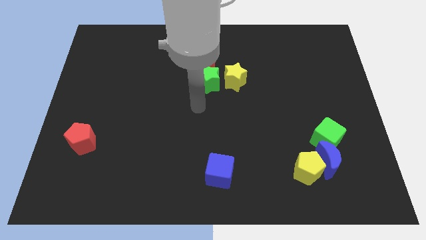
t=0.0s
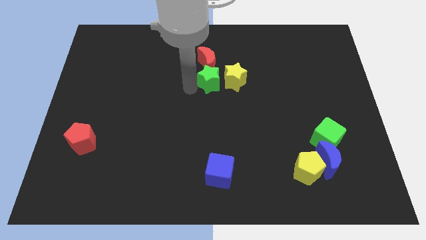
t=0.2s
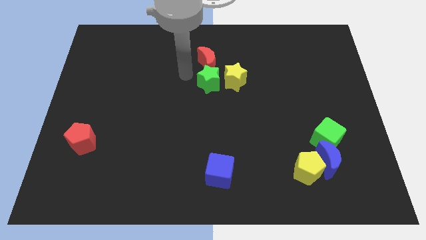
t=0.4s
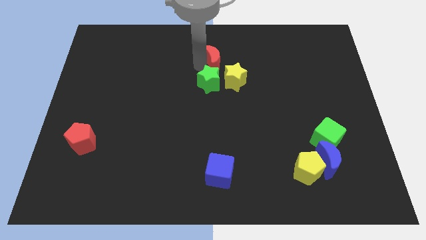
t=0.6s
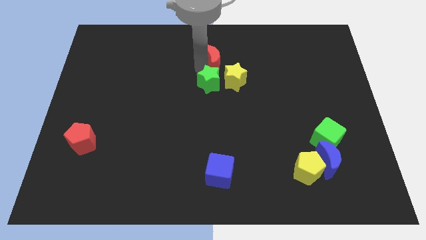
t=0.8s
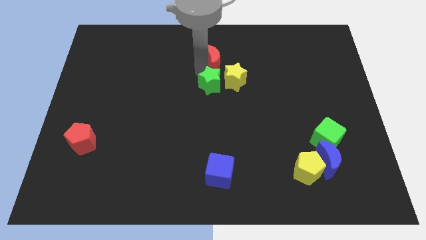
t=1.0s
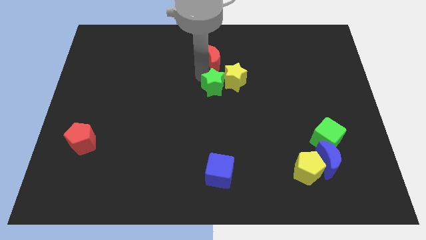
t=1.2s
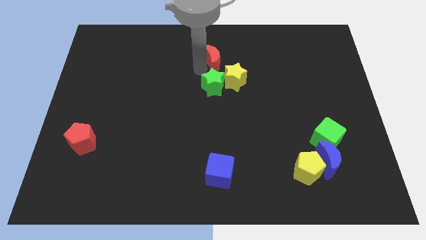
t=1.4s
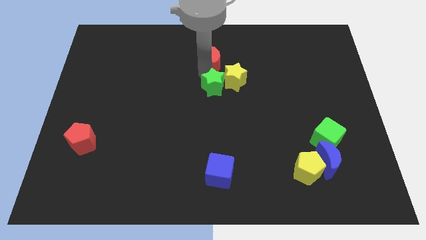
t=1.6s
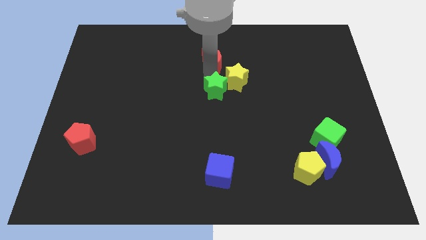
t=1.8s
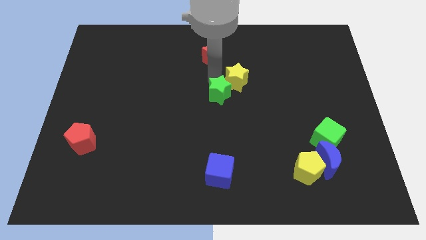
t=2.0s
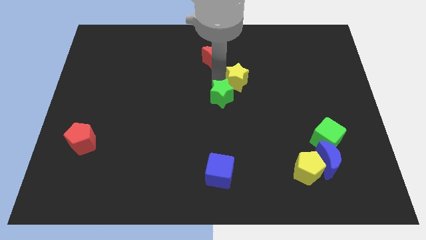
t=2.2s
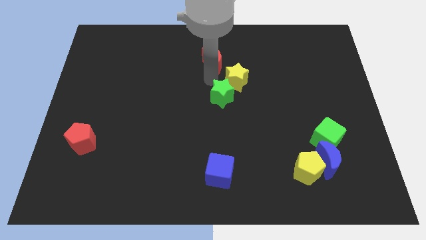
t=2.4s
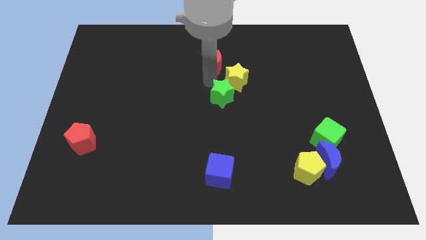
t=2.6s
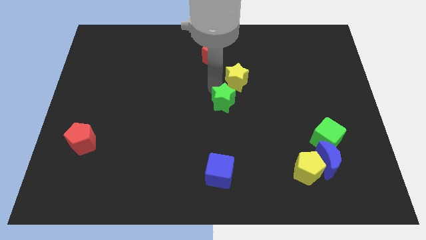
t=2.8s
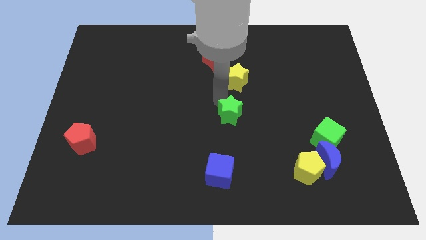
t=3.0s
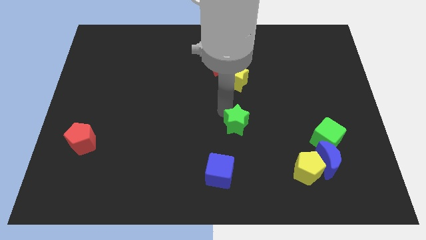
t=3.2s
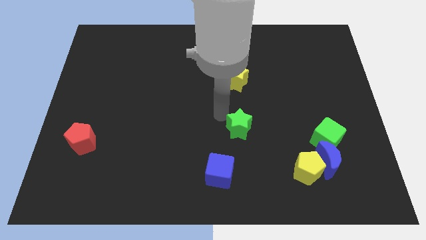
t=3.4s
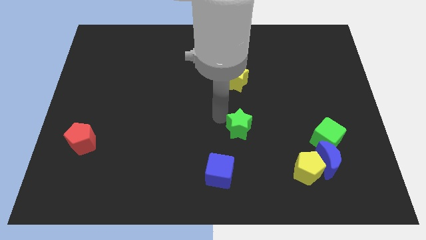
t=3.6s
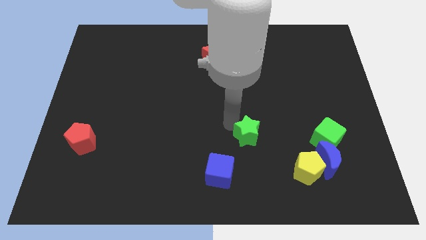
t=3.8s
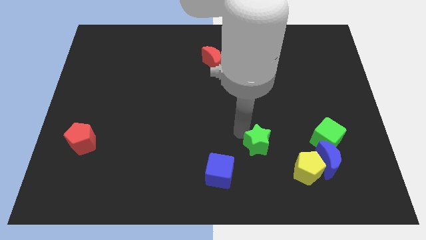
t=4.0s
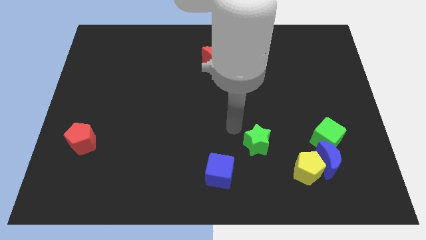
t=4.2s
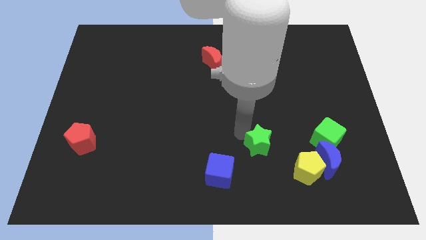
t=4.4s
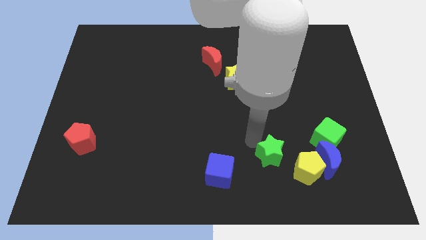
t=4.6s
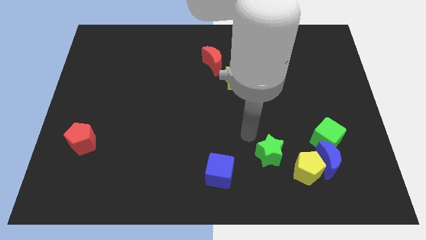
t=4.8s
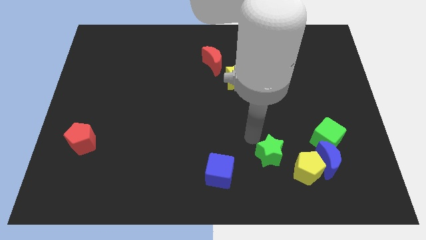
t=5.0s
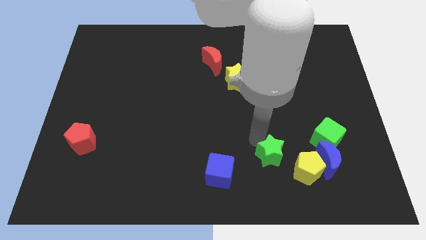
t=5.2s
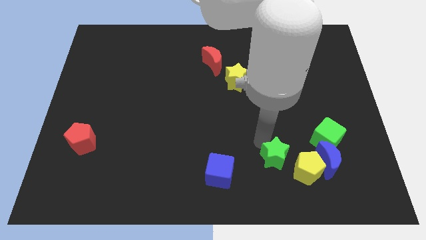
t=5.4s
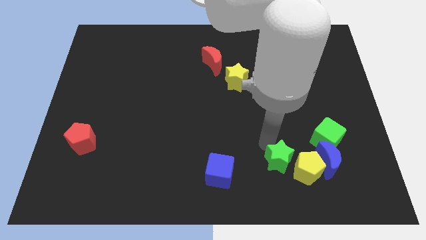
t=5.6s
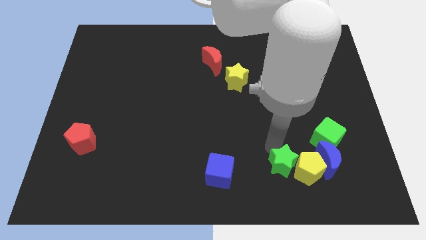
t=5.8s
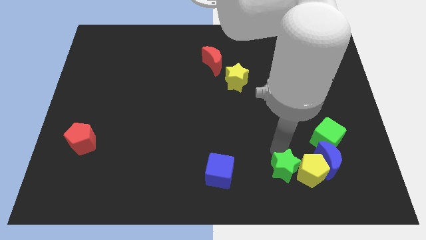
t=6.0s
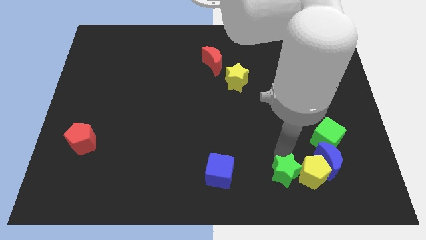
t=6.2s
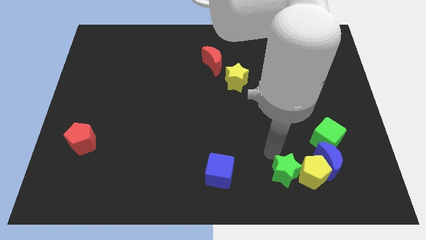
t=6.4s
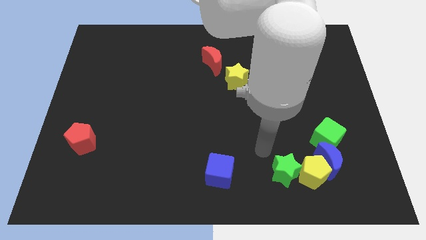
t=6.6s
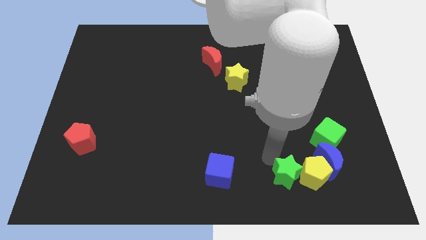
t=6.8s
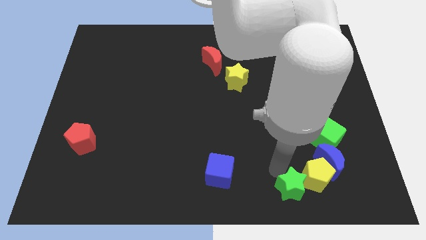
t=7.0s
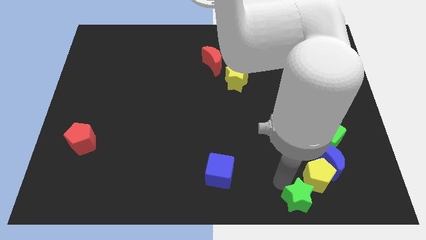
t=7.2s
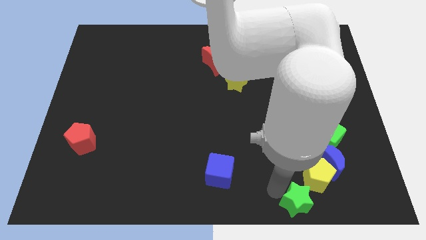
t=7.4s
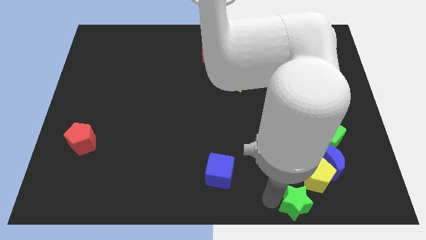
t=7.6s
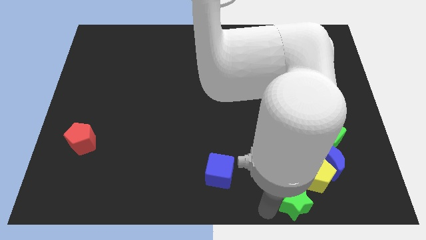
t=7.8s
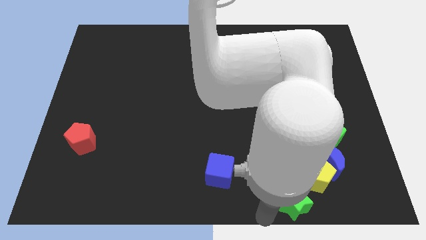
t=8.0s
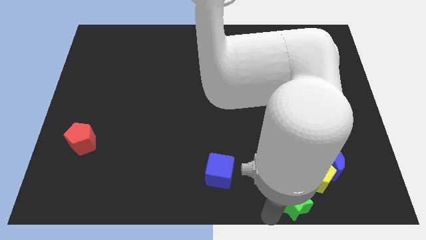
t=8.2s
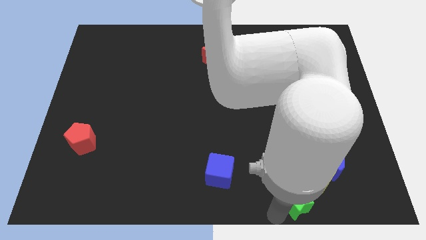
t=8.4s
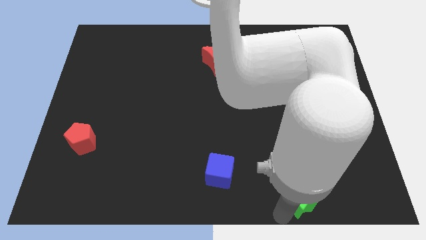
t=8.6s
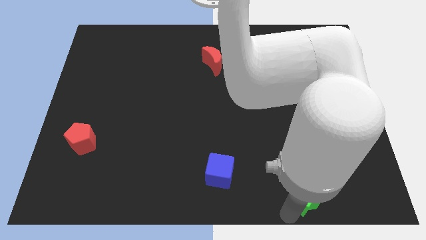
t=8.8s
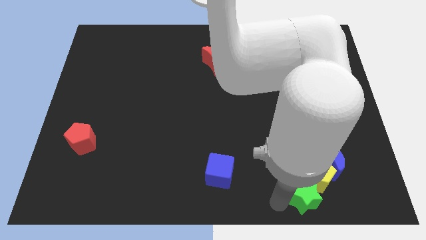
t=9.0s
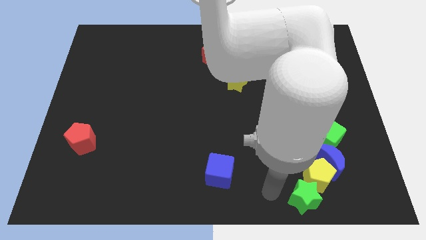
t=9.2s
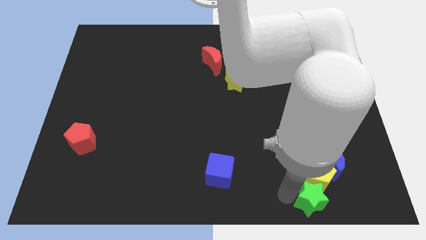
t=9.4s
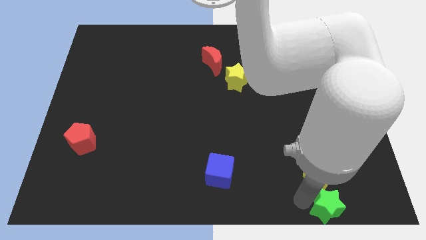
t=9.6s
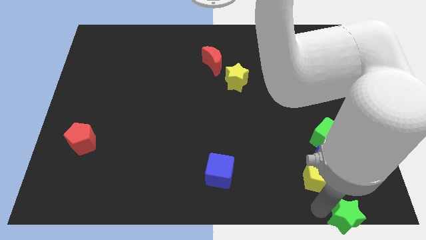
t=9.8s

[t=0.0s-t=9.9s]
push the green star to the bottom right

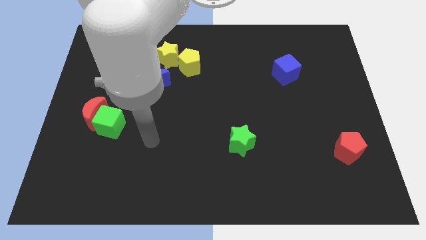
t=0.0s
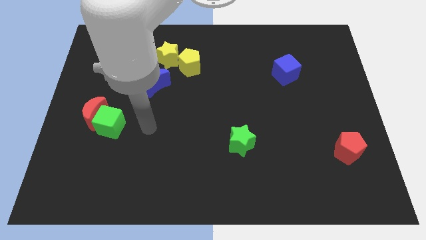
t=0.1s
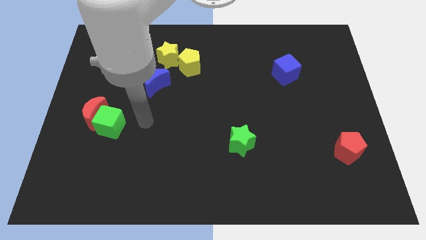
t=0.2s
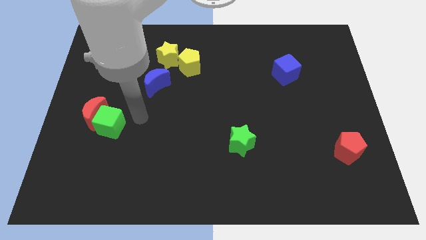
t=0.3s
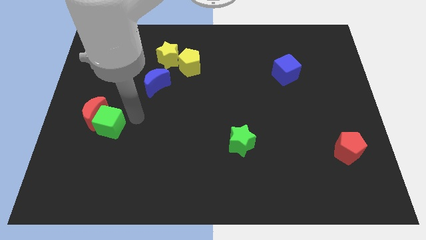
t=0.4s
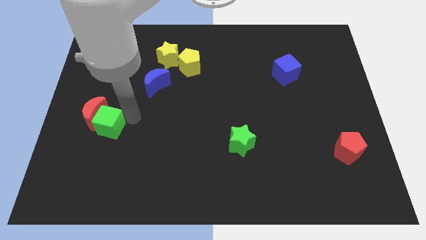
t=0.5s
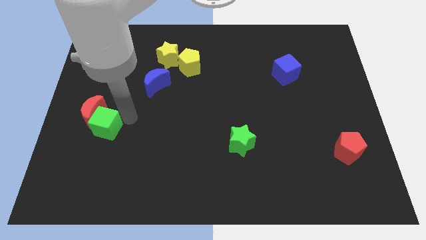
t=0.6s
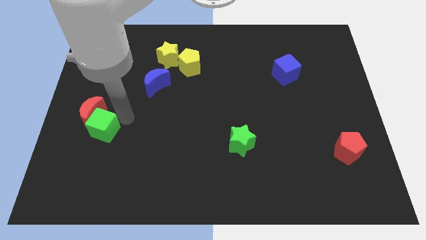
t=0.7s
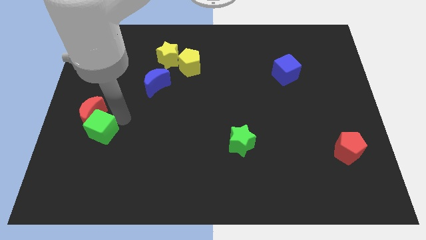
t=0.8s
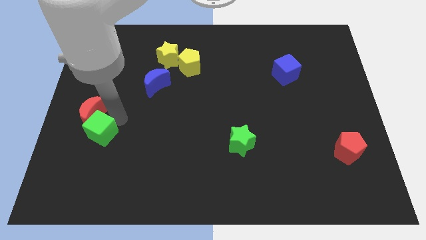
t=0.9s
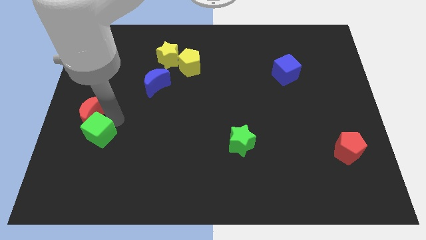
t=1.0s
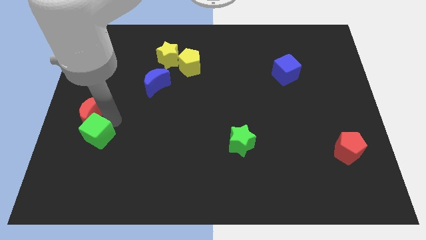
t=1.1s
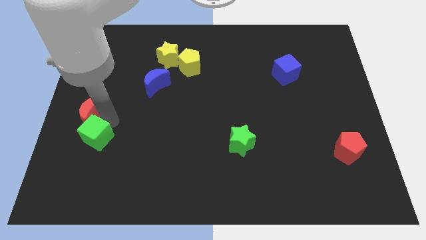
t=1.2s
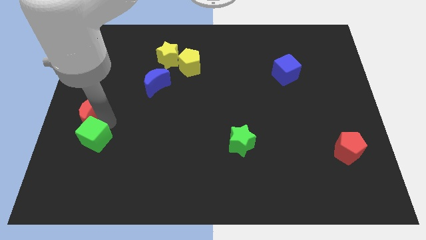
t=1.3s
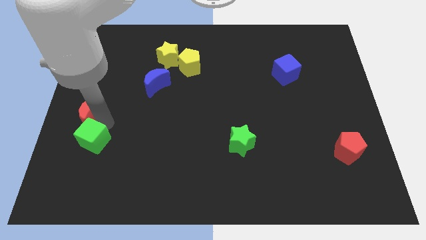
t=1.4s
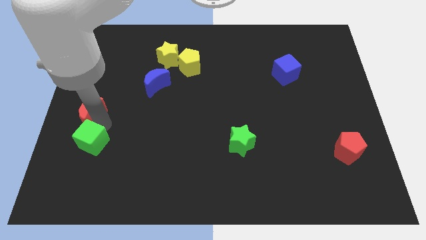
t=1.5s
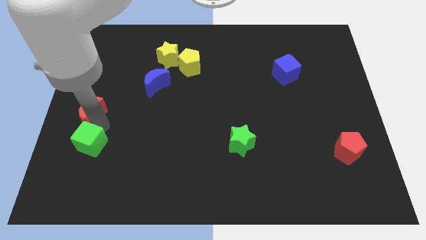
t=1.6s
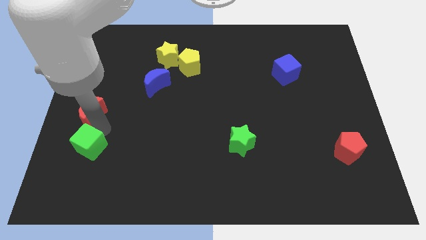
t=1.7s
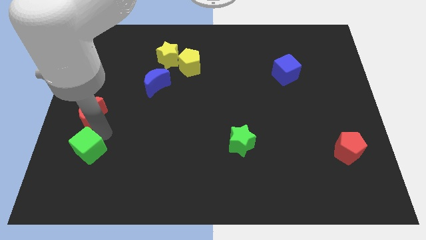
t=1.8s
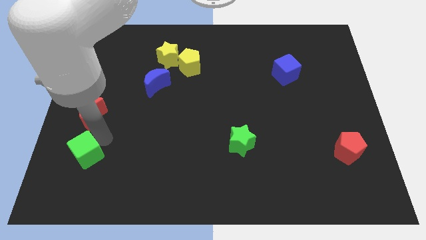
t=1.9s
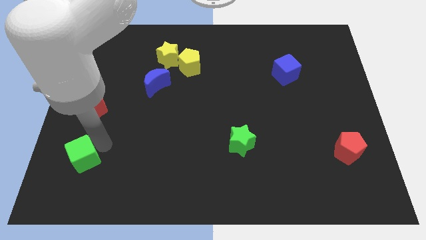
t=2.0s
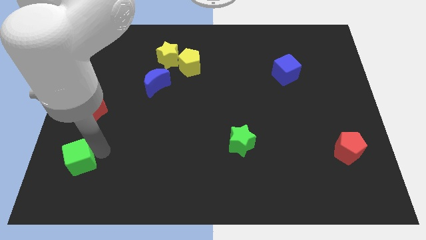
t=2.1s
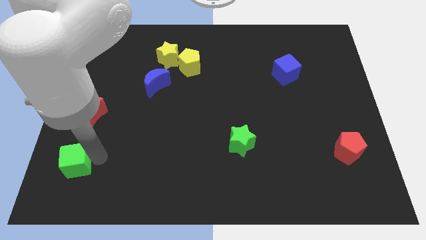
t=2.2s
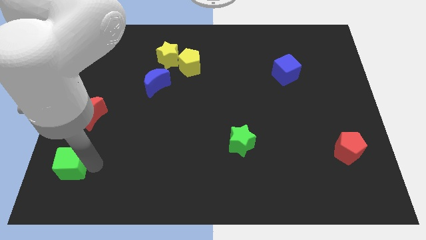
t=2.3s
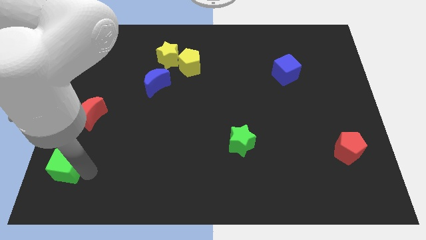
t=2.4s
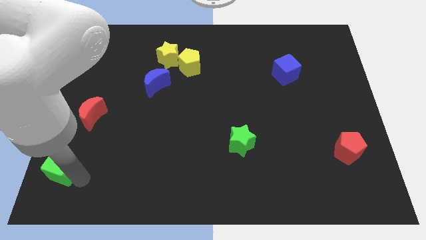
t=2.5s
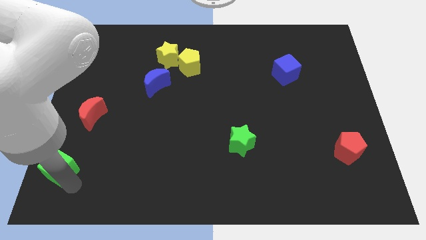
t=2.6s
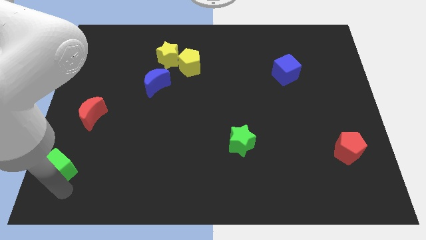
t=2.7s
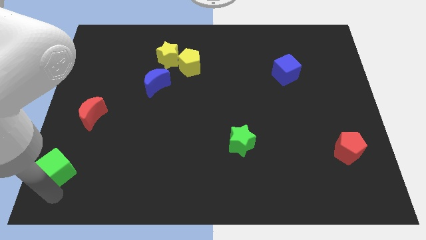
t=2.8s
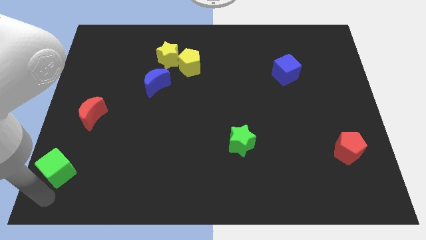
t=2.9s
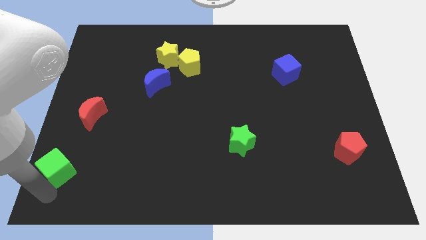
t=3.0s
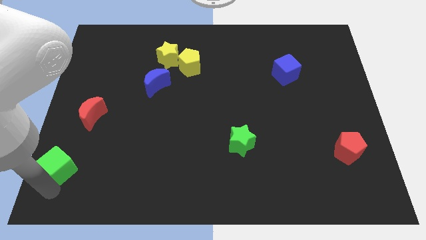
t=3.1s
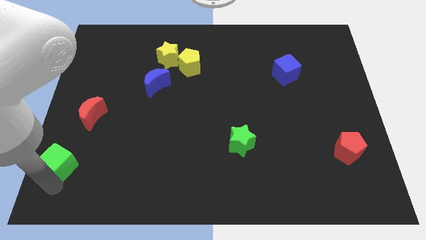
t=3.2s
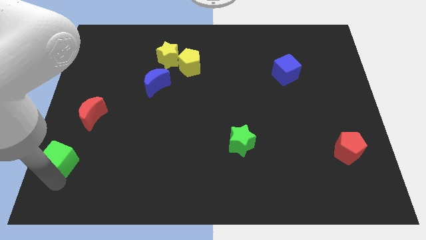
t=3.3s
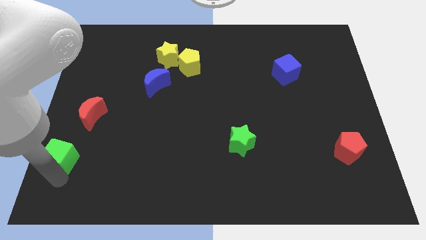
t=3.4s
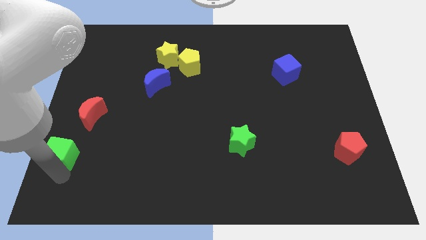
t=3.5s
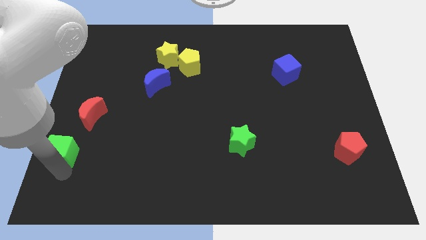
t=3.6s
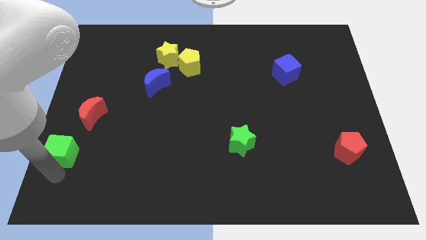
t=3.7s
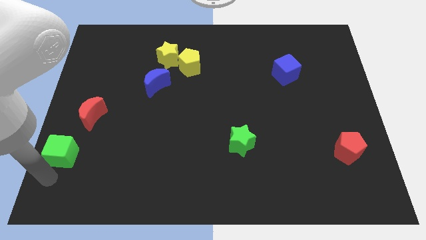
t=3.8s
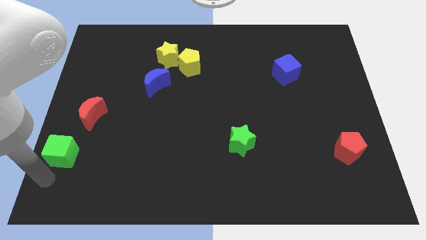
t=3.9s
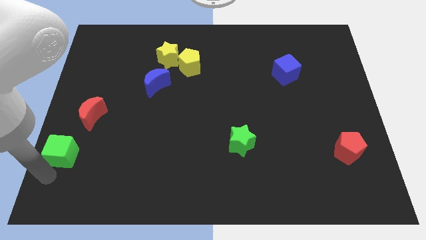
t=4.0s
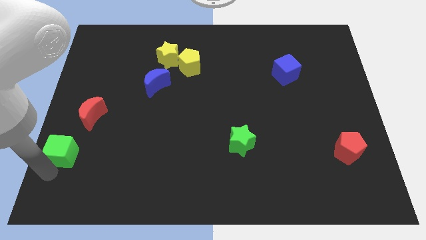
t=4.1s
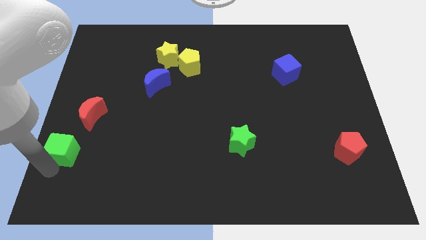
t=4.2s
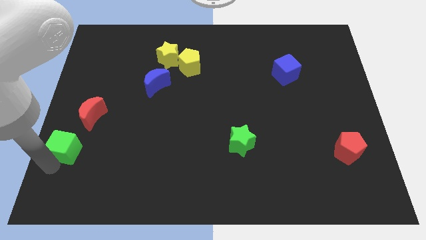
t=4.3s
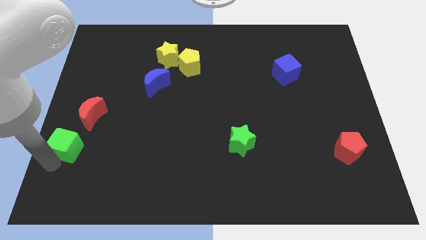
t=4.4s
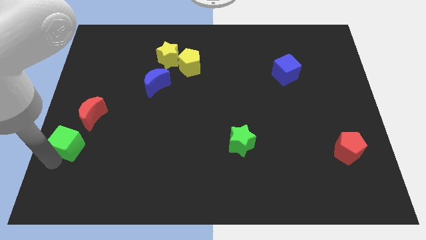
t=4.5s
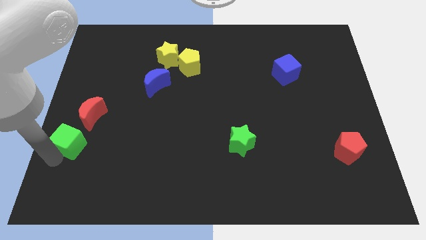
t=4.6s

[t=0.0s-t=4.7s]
slide the green cube to the left side of the board
